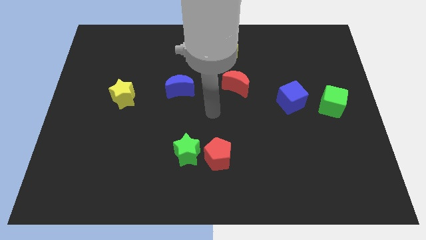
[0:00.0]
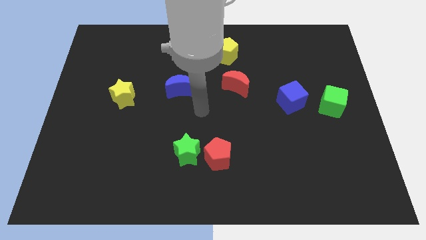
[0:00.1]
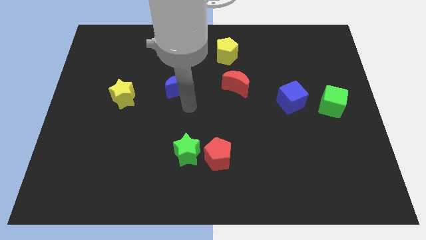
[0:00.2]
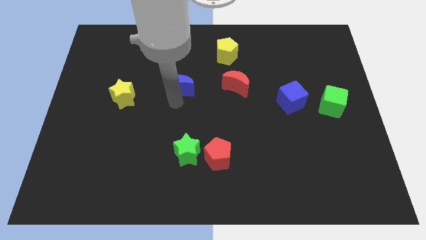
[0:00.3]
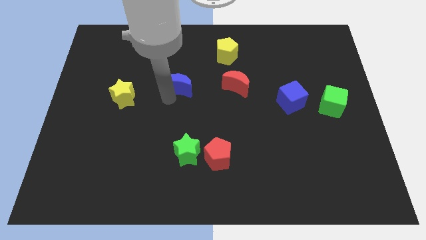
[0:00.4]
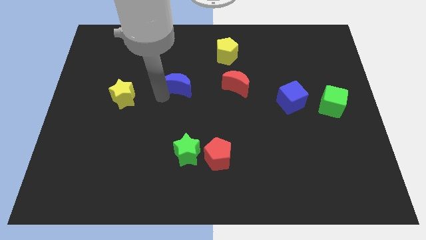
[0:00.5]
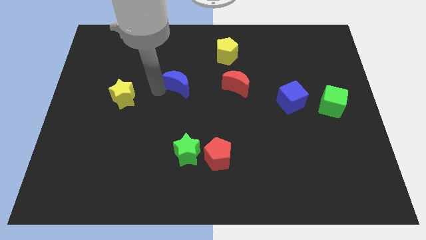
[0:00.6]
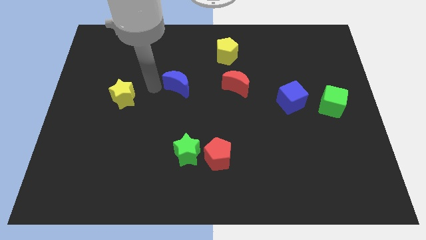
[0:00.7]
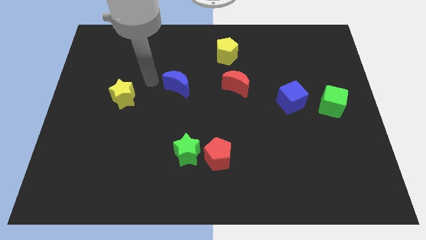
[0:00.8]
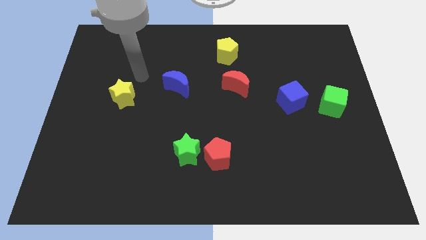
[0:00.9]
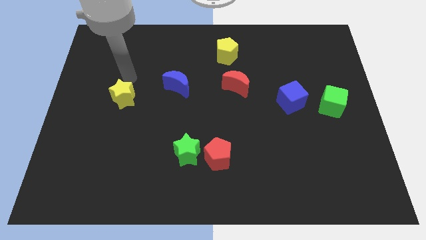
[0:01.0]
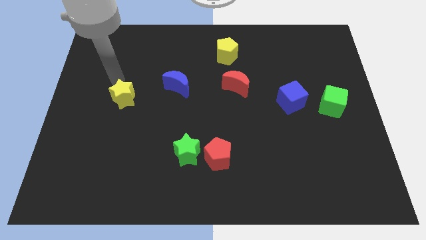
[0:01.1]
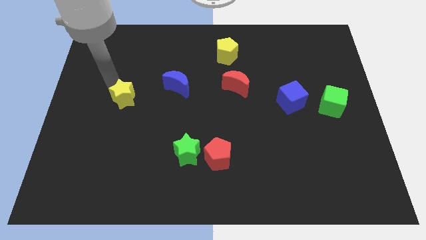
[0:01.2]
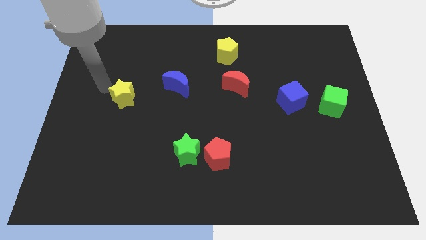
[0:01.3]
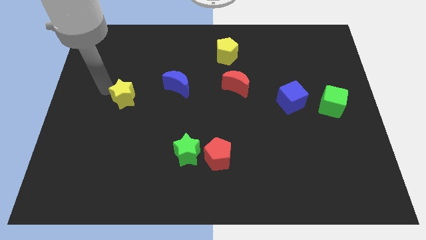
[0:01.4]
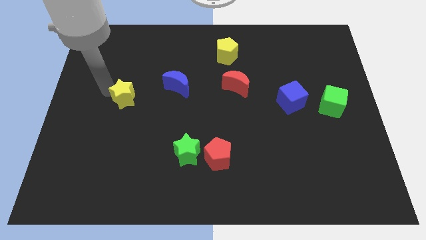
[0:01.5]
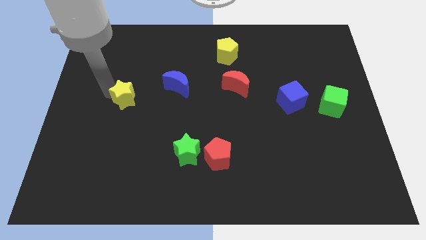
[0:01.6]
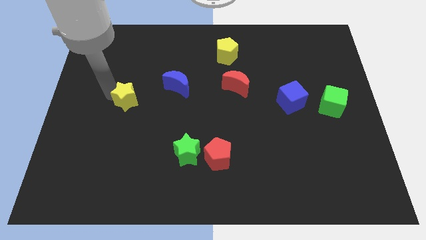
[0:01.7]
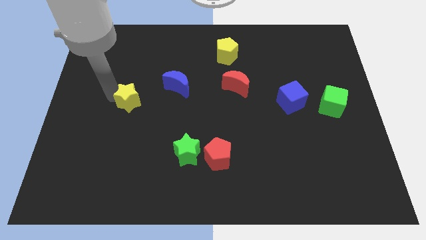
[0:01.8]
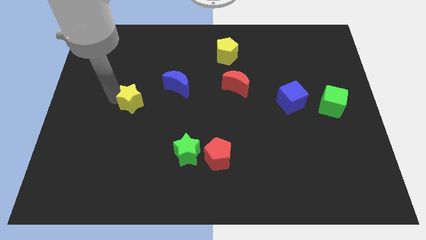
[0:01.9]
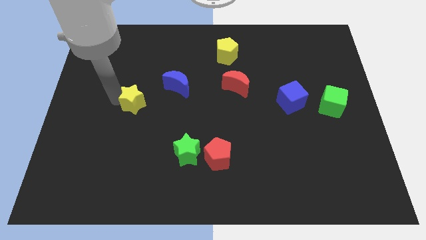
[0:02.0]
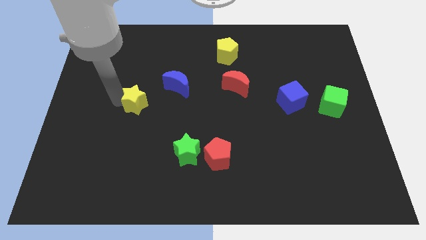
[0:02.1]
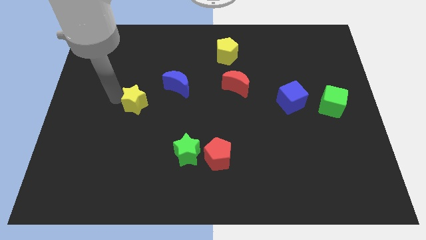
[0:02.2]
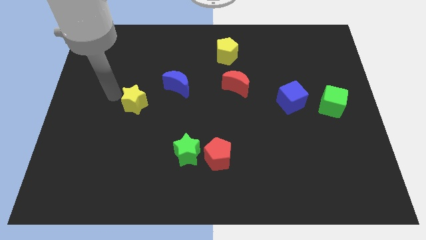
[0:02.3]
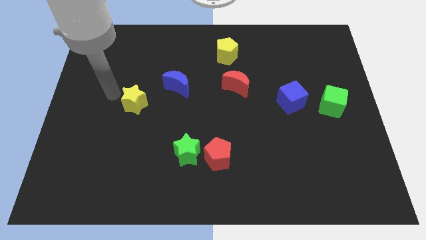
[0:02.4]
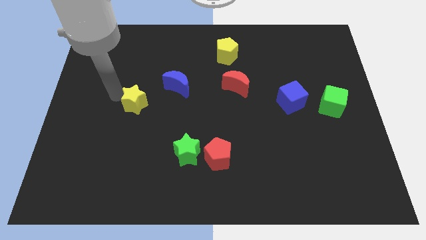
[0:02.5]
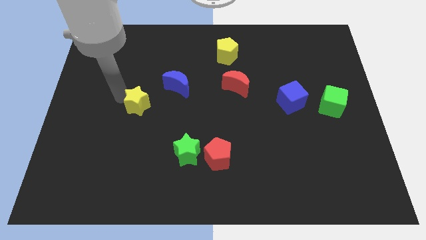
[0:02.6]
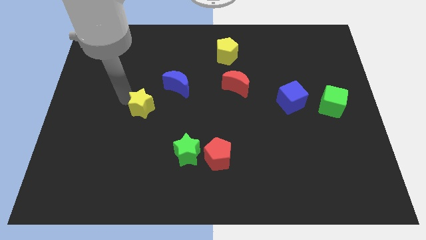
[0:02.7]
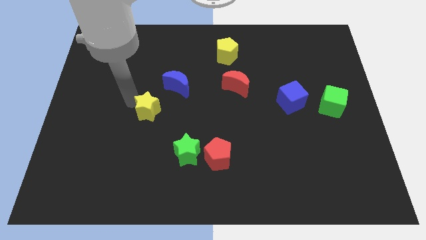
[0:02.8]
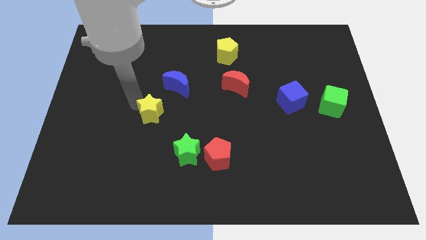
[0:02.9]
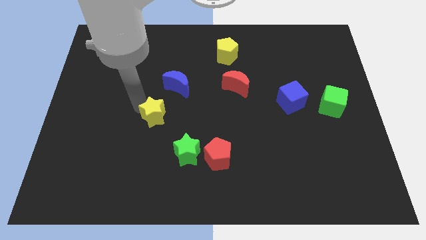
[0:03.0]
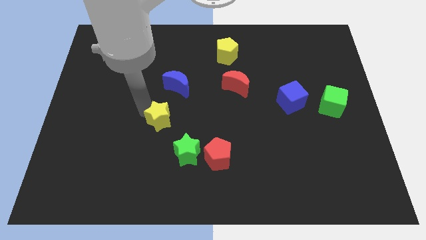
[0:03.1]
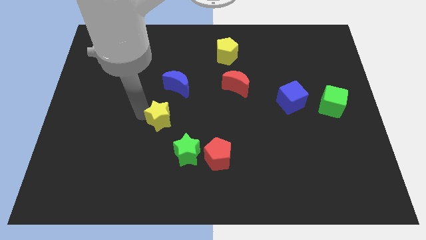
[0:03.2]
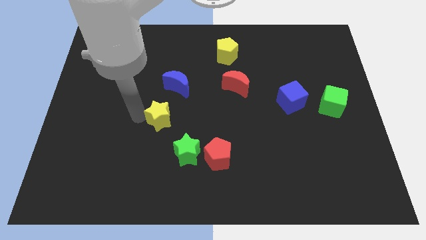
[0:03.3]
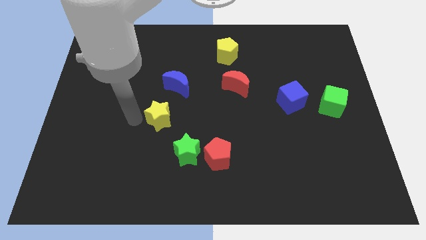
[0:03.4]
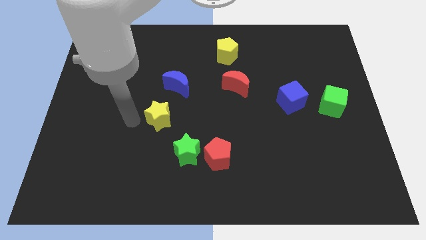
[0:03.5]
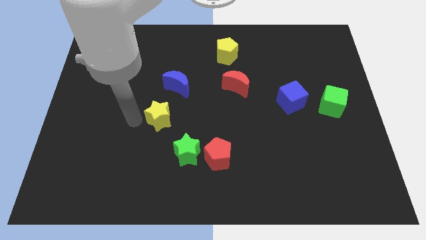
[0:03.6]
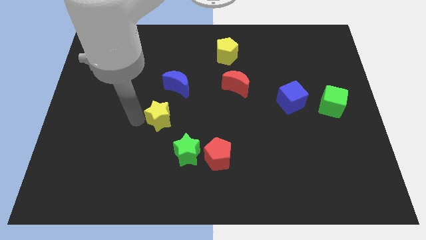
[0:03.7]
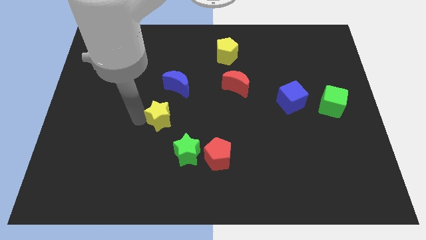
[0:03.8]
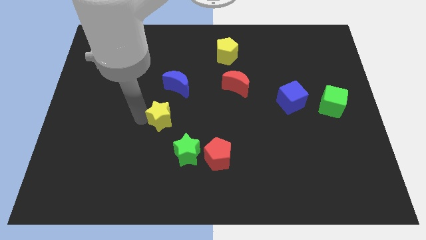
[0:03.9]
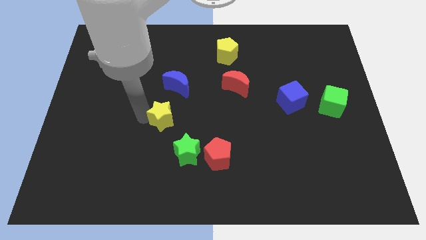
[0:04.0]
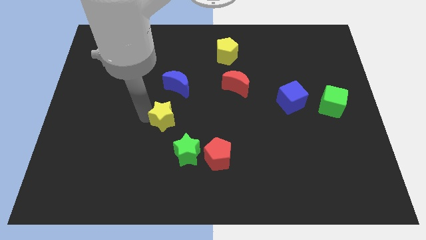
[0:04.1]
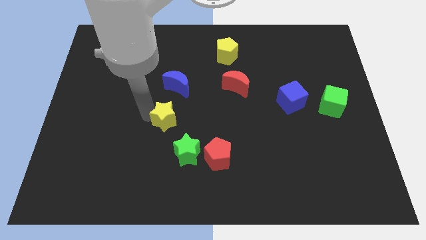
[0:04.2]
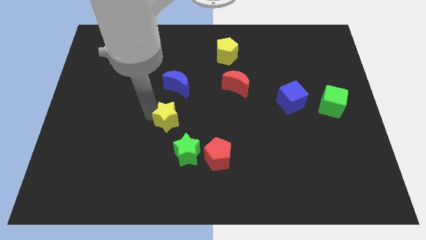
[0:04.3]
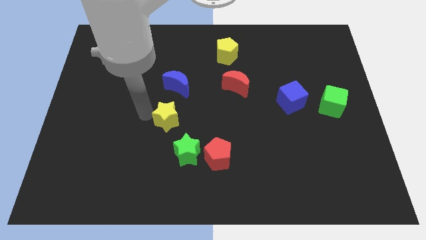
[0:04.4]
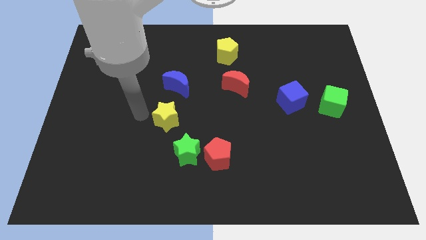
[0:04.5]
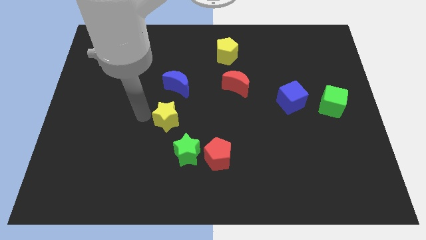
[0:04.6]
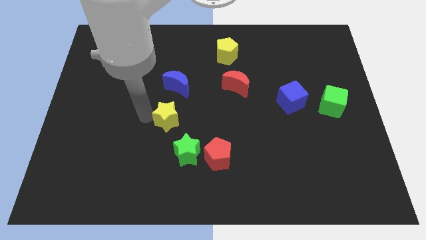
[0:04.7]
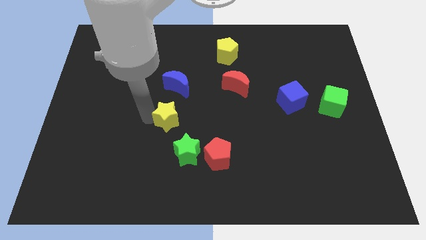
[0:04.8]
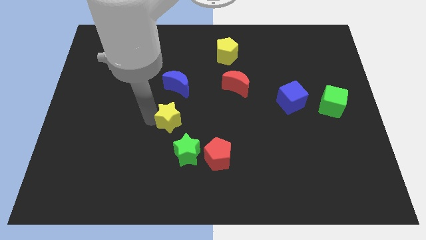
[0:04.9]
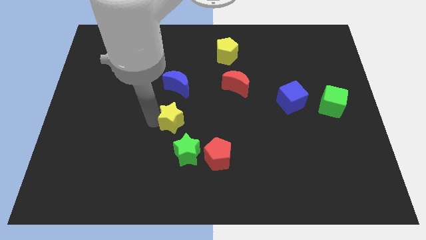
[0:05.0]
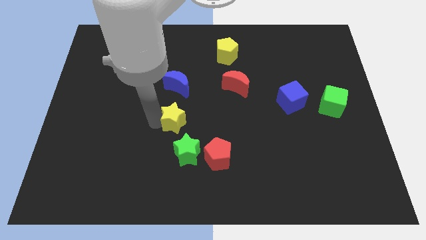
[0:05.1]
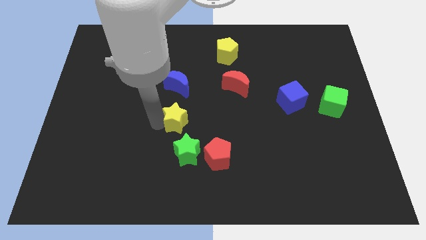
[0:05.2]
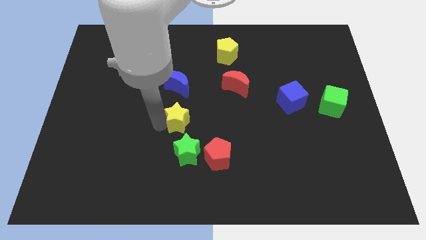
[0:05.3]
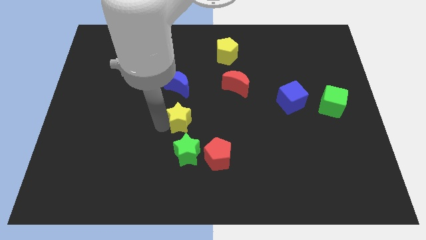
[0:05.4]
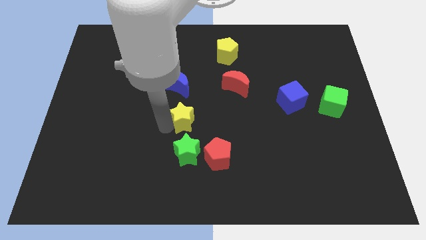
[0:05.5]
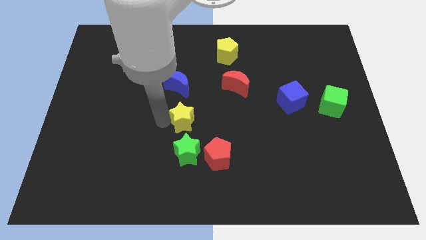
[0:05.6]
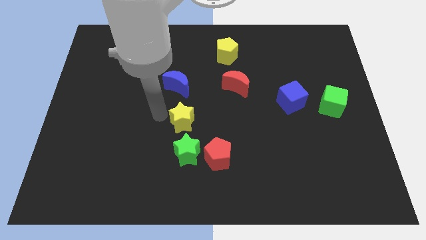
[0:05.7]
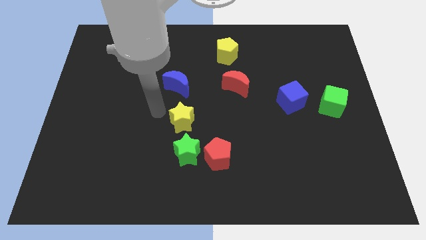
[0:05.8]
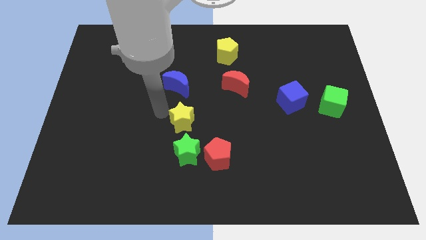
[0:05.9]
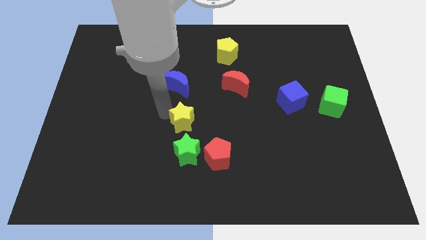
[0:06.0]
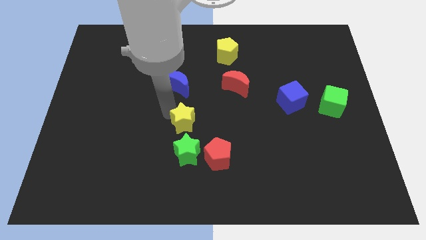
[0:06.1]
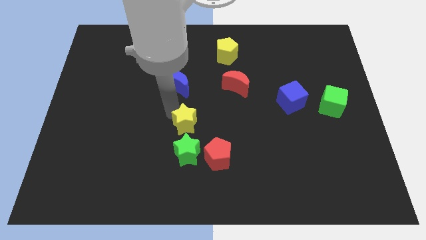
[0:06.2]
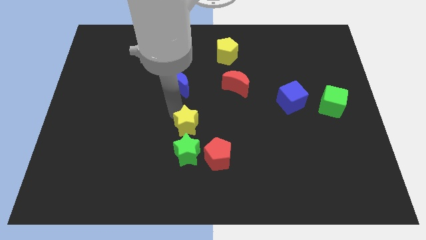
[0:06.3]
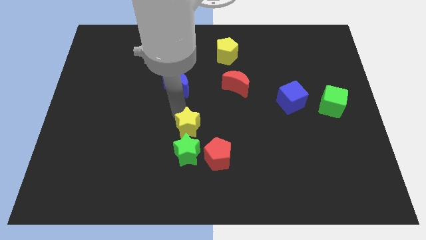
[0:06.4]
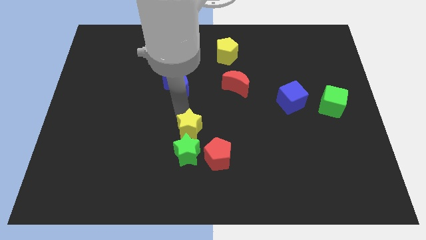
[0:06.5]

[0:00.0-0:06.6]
slide the yellow star to the top right side of the green star
